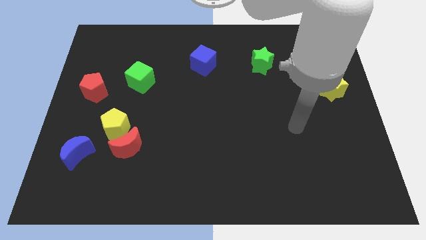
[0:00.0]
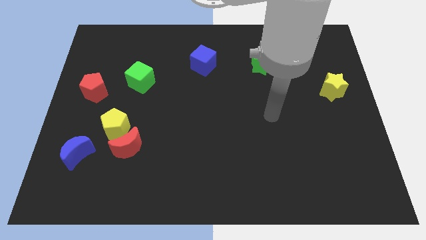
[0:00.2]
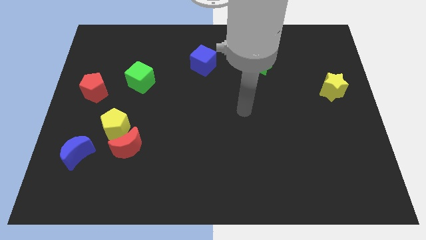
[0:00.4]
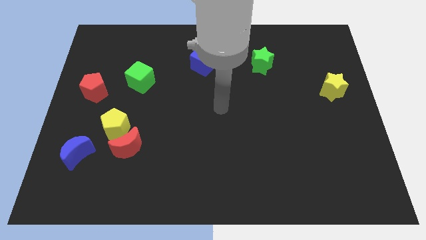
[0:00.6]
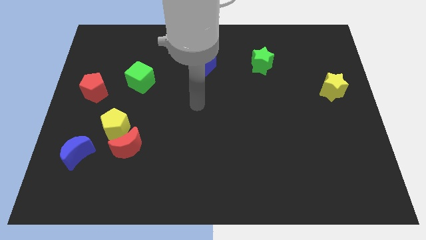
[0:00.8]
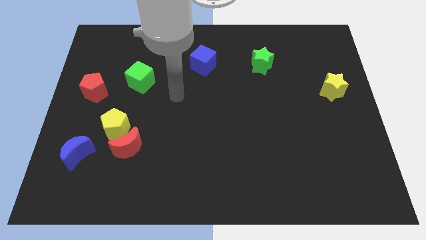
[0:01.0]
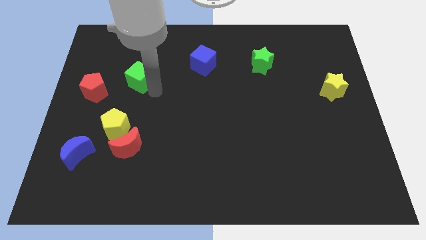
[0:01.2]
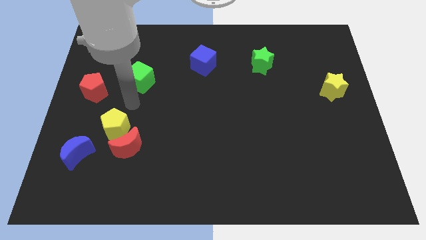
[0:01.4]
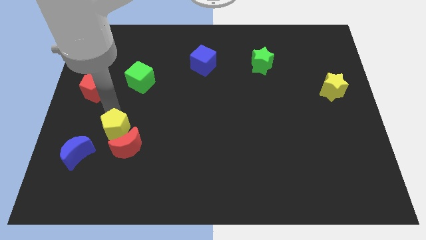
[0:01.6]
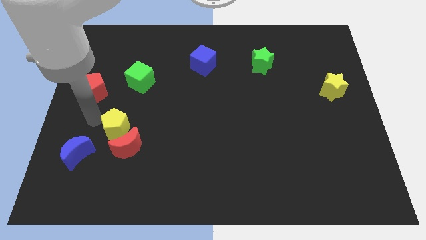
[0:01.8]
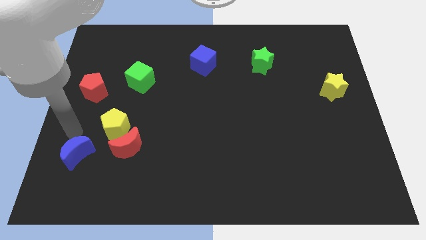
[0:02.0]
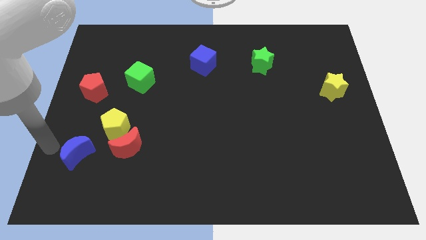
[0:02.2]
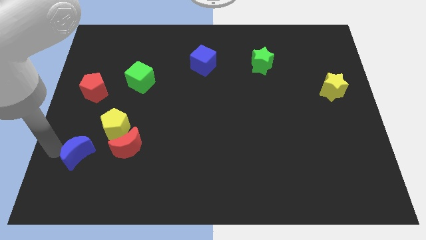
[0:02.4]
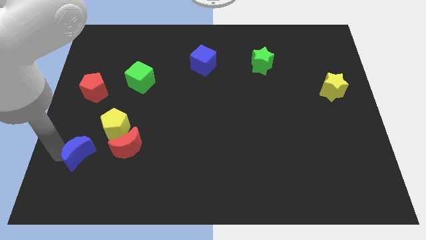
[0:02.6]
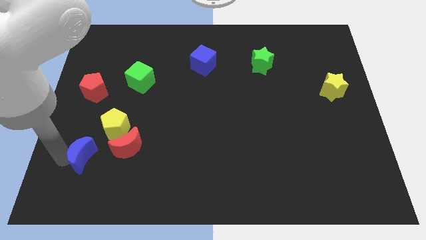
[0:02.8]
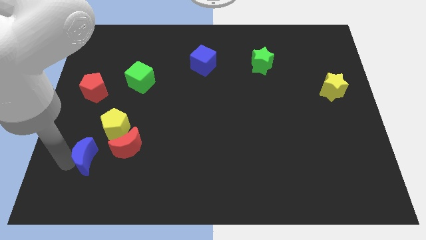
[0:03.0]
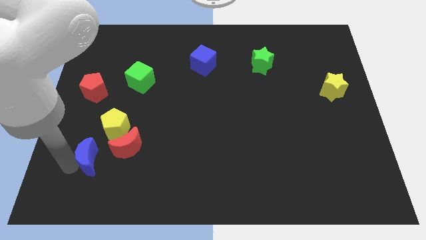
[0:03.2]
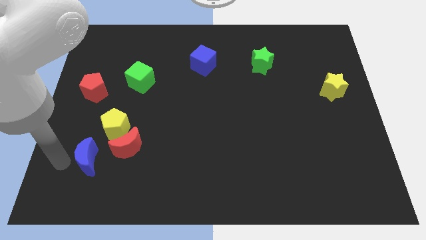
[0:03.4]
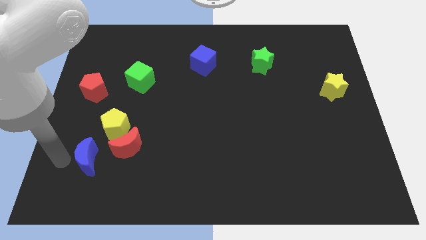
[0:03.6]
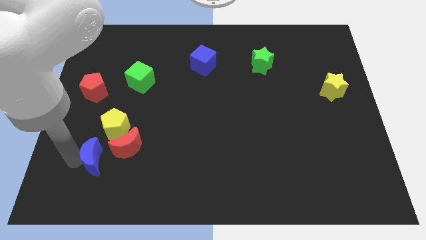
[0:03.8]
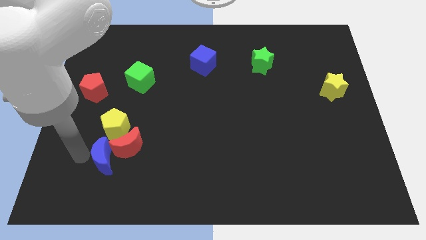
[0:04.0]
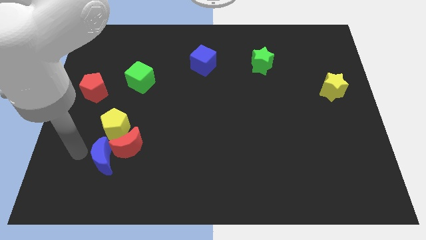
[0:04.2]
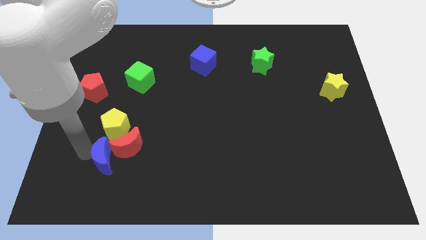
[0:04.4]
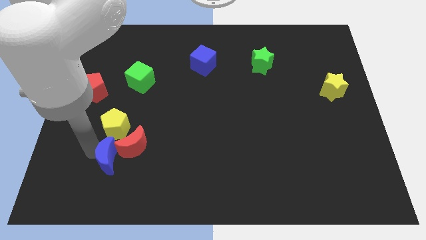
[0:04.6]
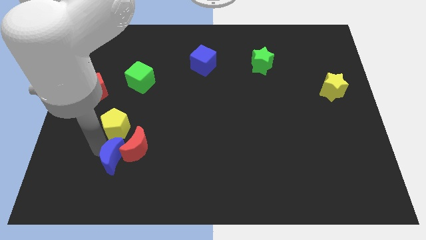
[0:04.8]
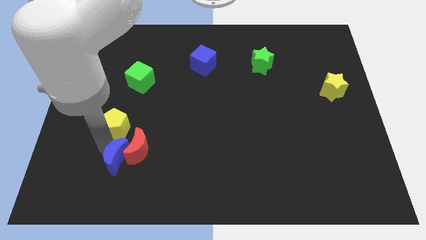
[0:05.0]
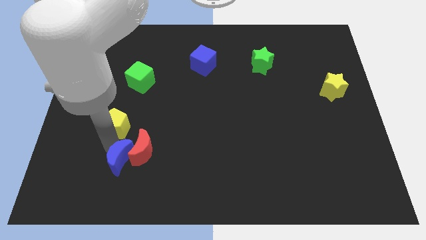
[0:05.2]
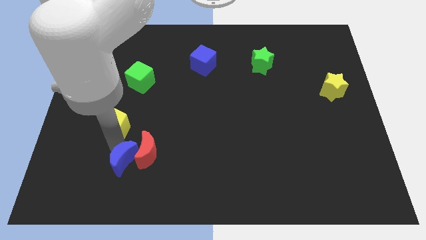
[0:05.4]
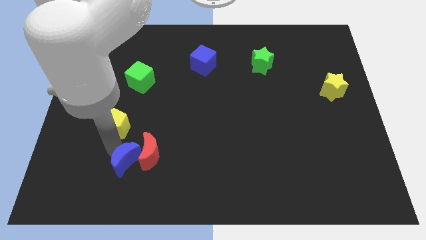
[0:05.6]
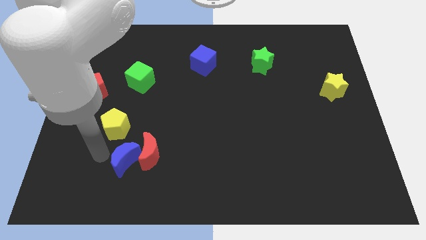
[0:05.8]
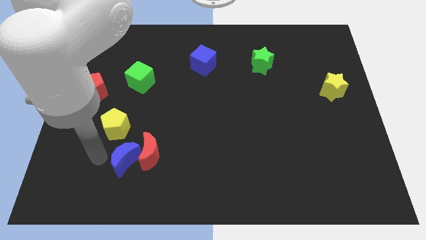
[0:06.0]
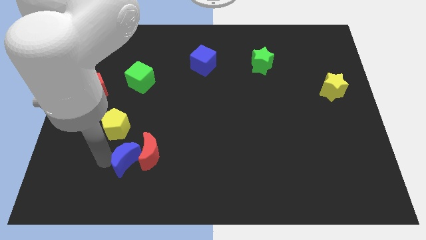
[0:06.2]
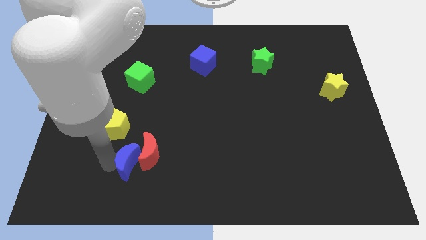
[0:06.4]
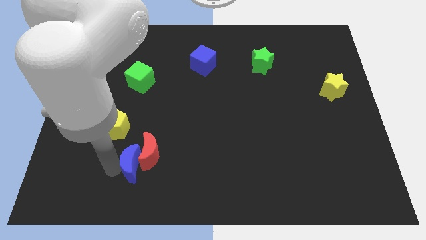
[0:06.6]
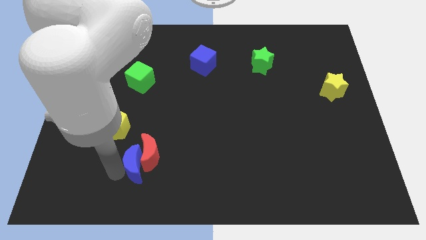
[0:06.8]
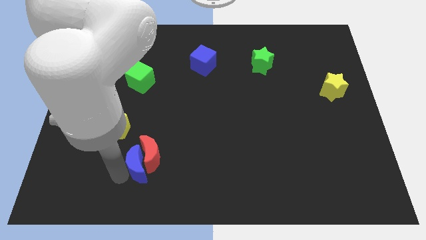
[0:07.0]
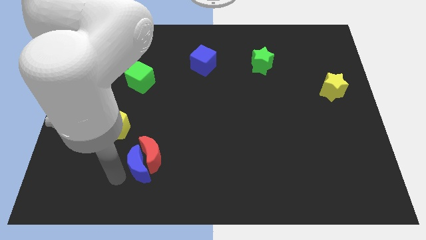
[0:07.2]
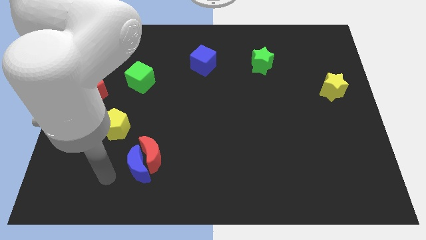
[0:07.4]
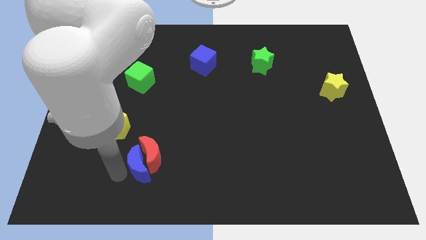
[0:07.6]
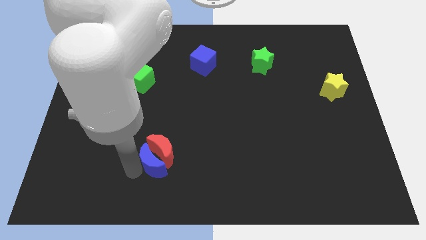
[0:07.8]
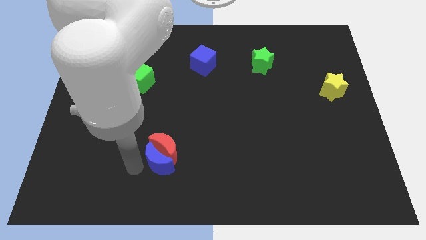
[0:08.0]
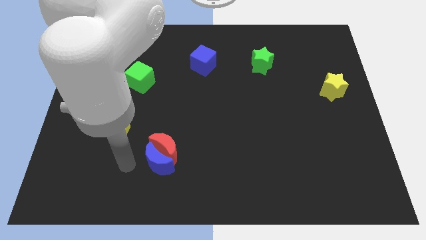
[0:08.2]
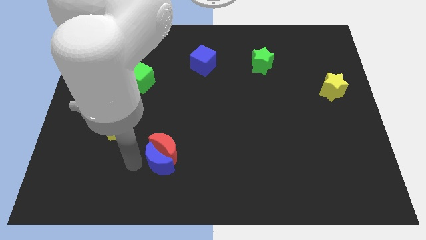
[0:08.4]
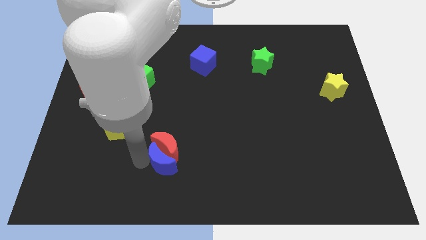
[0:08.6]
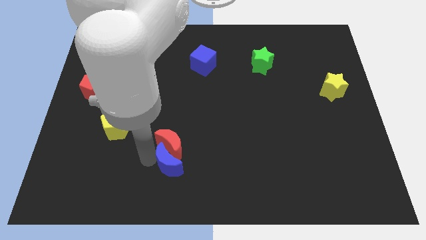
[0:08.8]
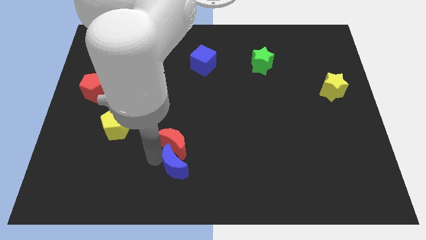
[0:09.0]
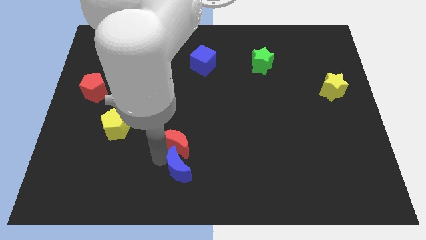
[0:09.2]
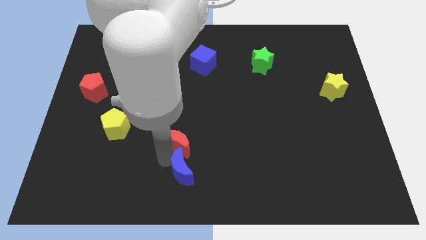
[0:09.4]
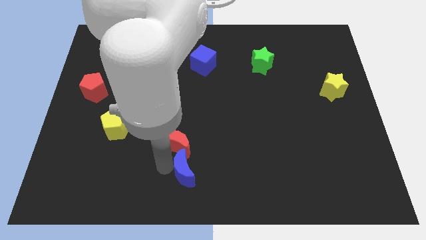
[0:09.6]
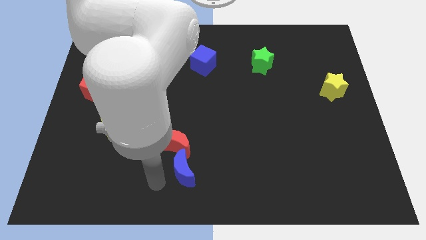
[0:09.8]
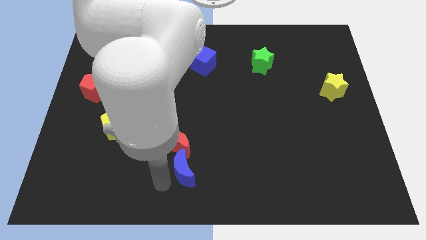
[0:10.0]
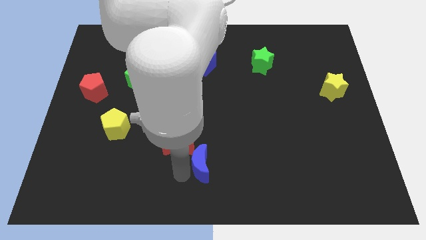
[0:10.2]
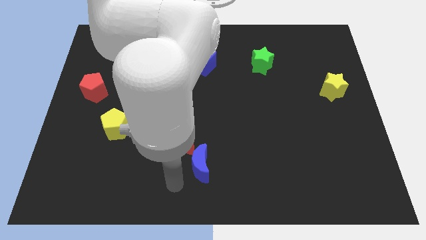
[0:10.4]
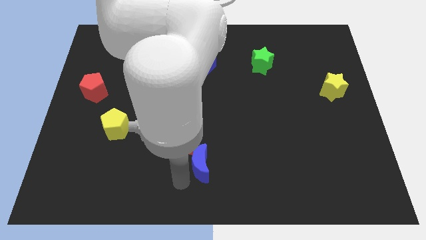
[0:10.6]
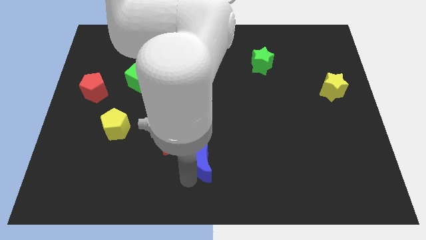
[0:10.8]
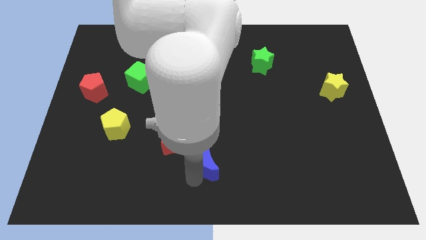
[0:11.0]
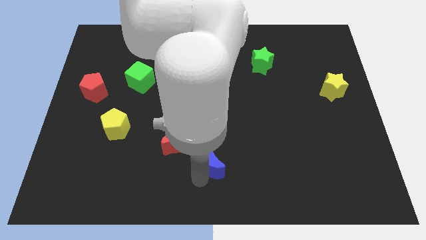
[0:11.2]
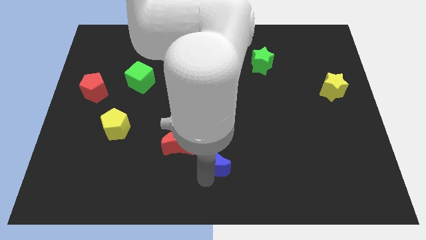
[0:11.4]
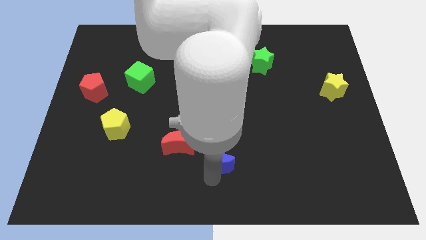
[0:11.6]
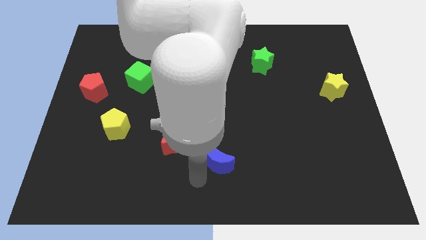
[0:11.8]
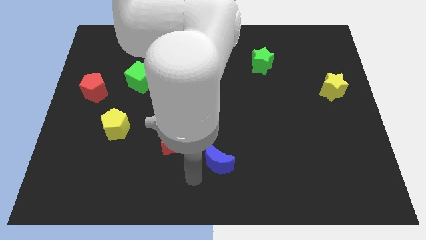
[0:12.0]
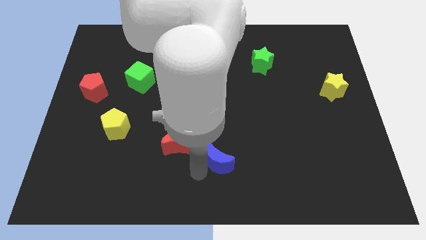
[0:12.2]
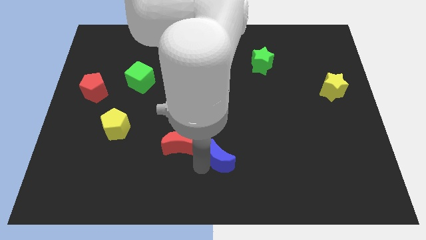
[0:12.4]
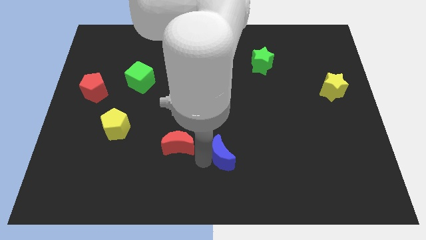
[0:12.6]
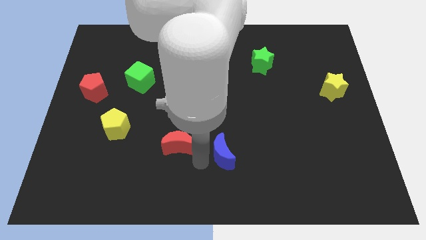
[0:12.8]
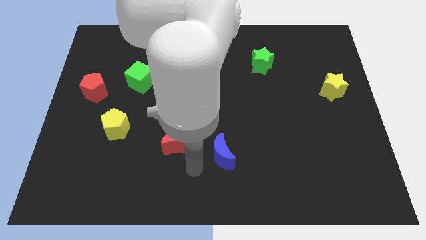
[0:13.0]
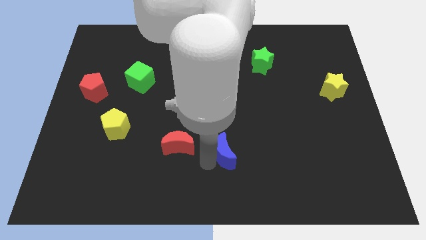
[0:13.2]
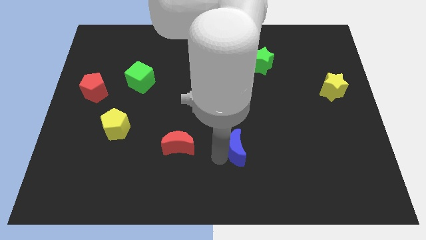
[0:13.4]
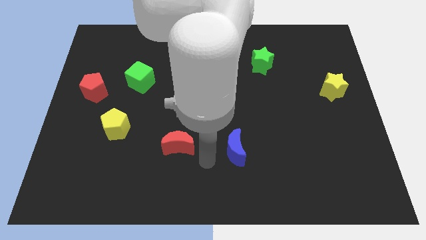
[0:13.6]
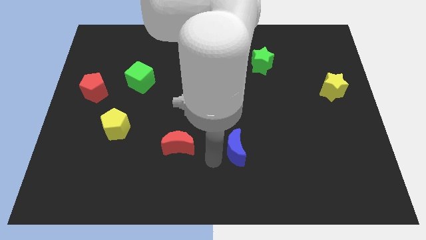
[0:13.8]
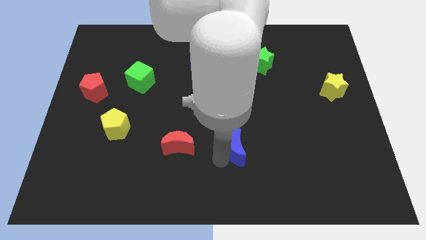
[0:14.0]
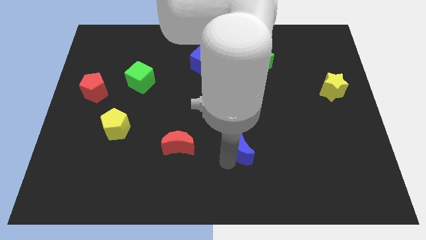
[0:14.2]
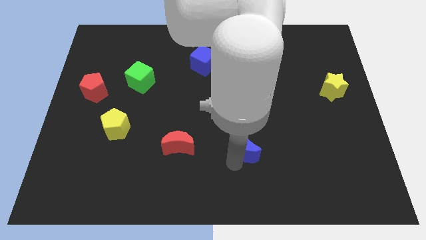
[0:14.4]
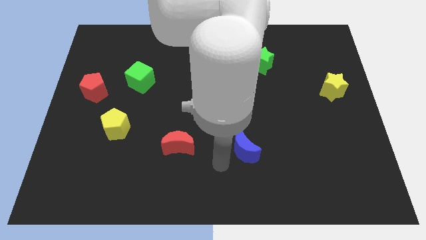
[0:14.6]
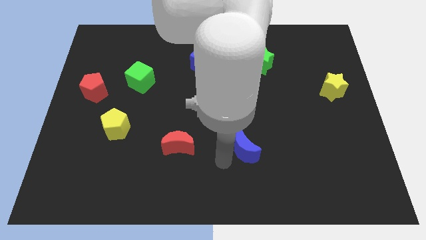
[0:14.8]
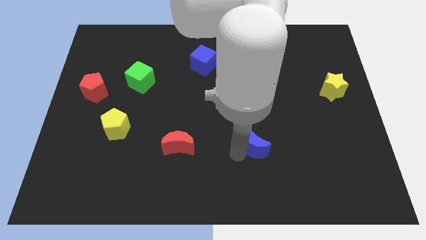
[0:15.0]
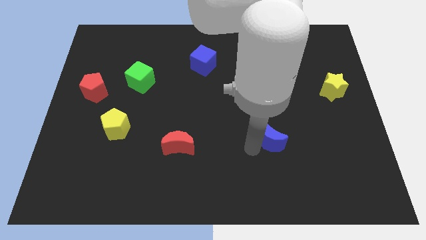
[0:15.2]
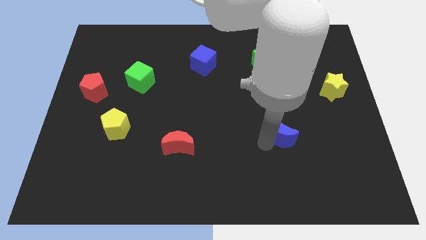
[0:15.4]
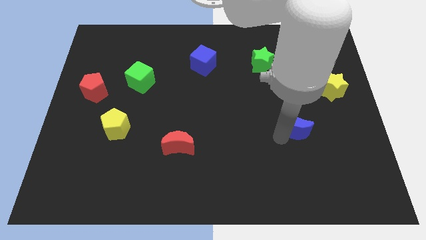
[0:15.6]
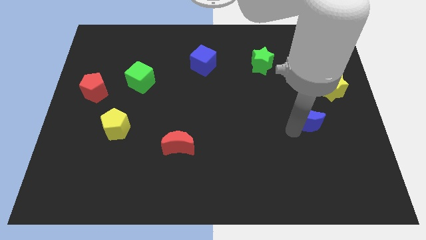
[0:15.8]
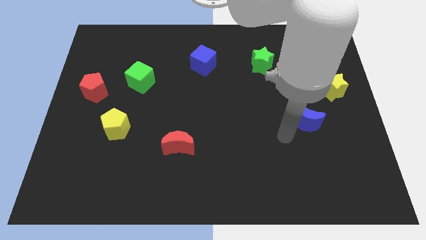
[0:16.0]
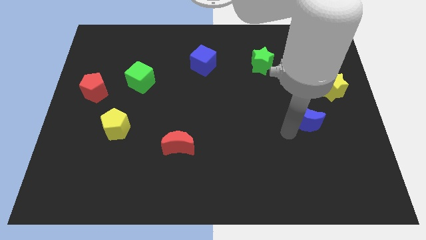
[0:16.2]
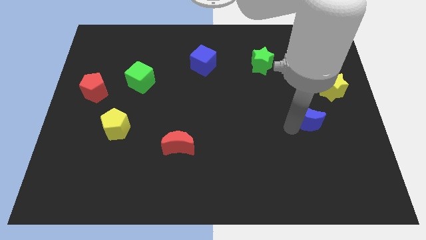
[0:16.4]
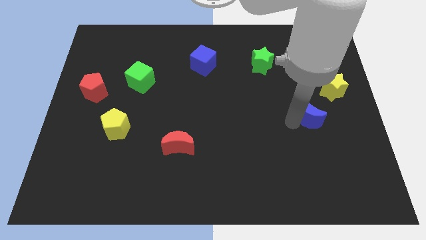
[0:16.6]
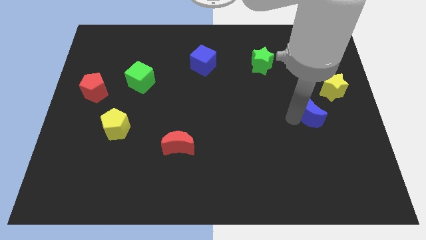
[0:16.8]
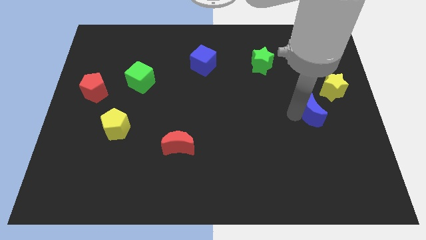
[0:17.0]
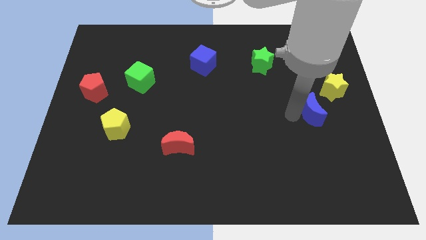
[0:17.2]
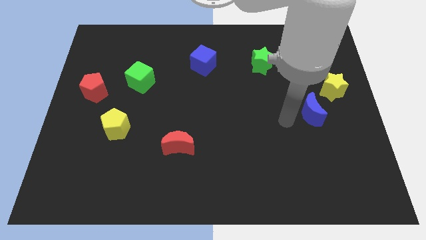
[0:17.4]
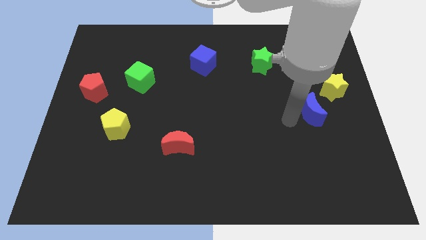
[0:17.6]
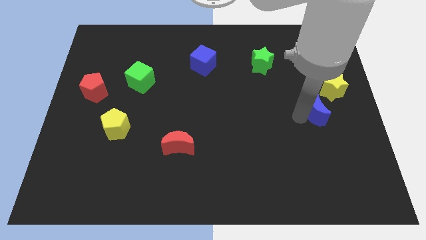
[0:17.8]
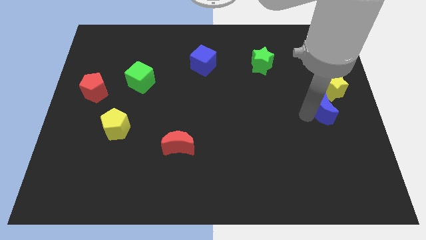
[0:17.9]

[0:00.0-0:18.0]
put the blue moon to the right side
